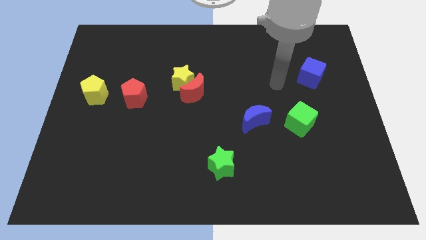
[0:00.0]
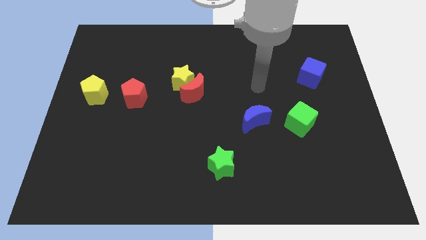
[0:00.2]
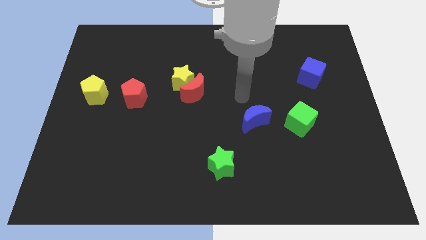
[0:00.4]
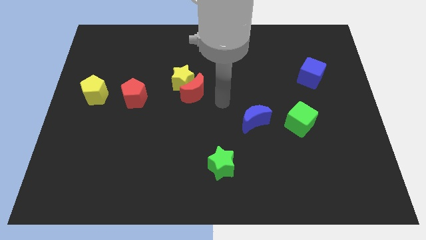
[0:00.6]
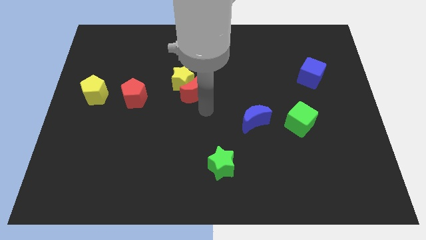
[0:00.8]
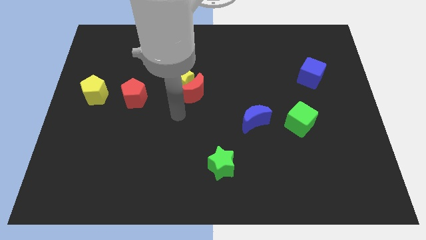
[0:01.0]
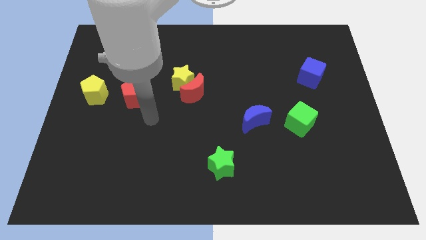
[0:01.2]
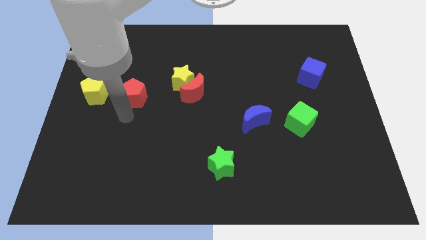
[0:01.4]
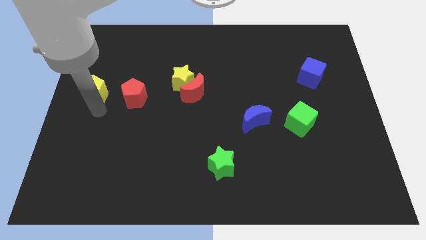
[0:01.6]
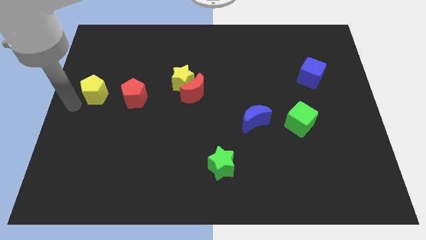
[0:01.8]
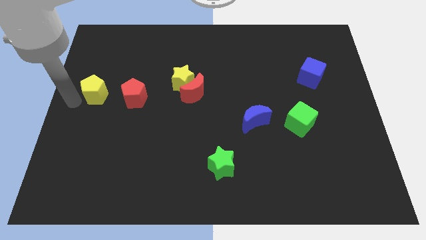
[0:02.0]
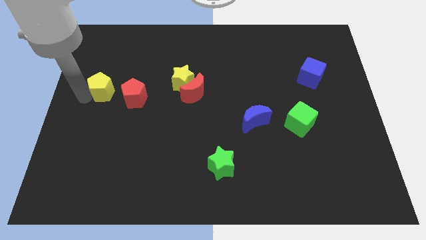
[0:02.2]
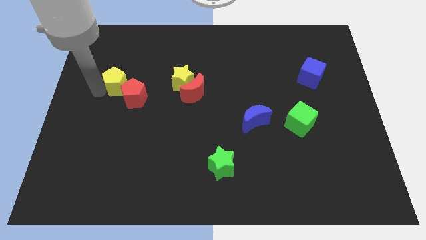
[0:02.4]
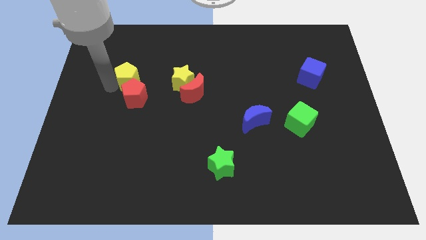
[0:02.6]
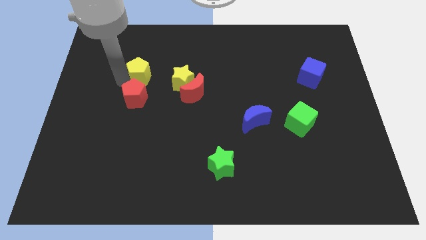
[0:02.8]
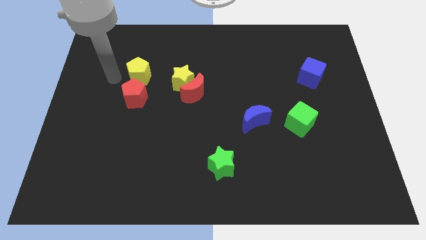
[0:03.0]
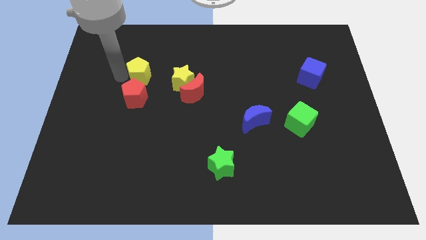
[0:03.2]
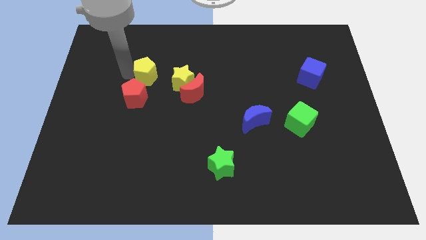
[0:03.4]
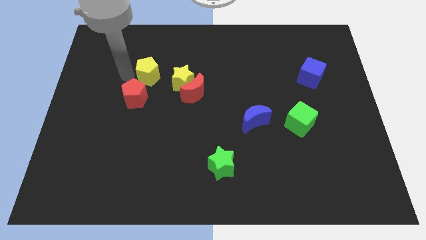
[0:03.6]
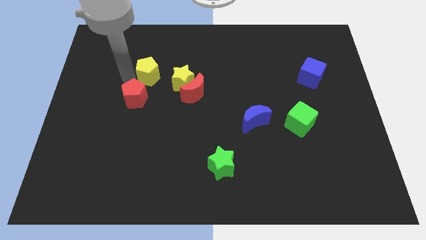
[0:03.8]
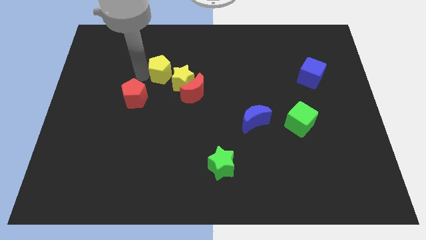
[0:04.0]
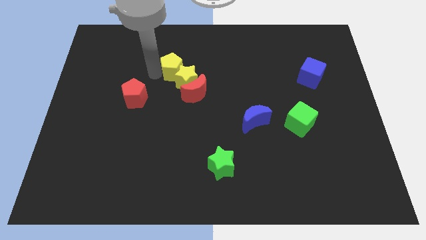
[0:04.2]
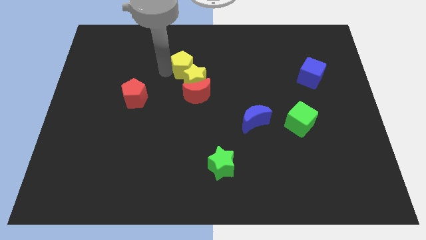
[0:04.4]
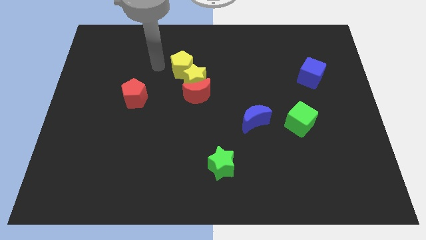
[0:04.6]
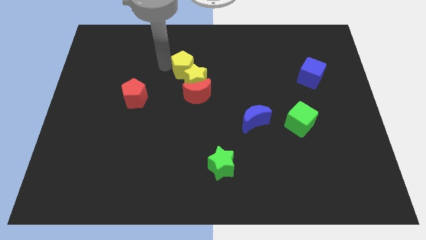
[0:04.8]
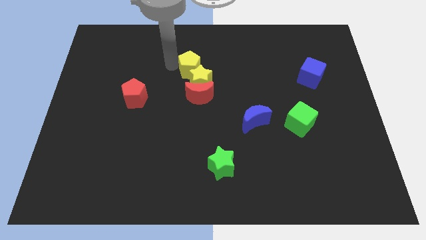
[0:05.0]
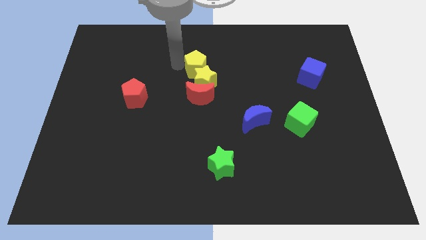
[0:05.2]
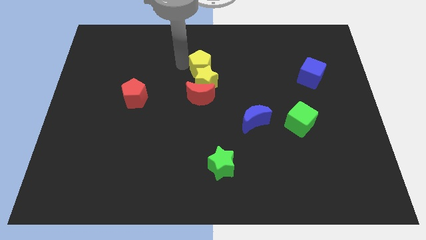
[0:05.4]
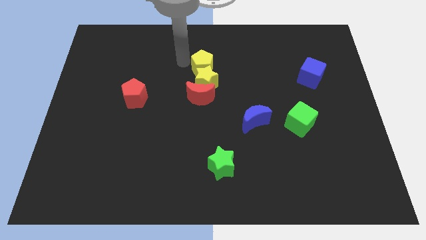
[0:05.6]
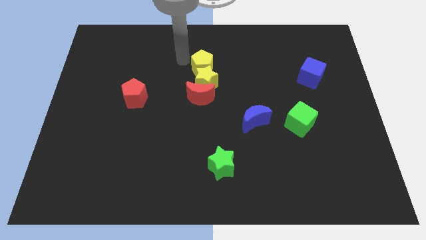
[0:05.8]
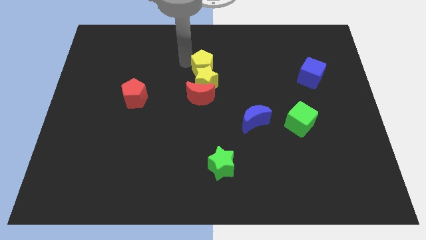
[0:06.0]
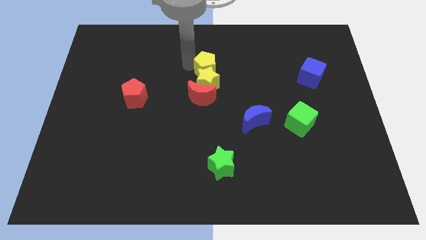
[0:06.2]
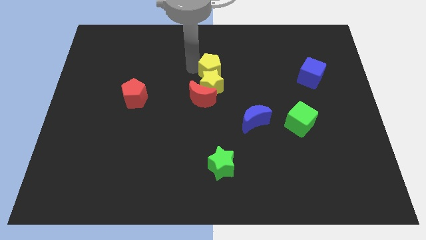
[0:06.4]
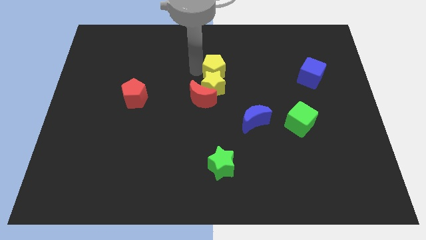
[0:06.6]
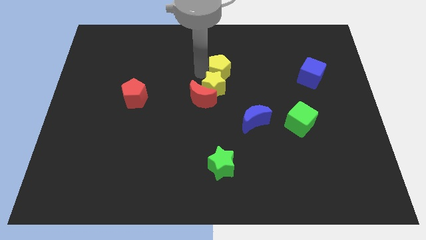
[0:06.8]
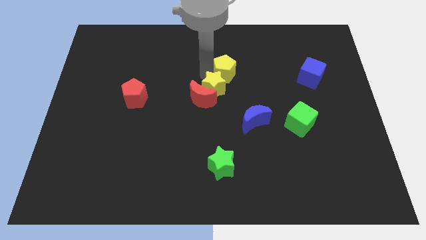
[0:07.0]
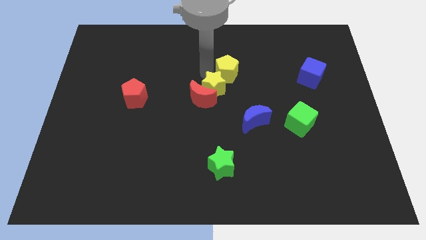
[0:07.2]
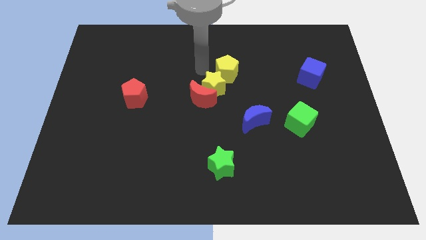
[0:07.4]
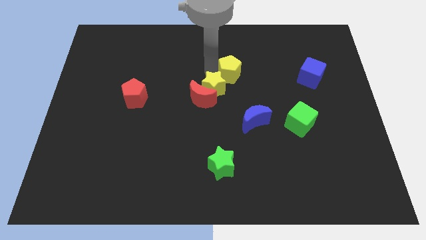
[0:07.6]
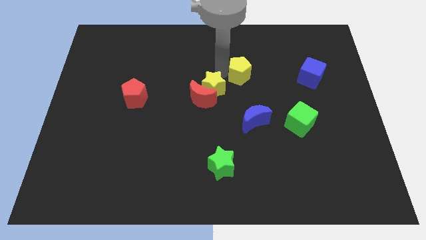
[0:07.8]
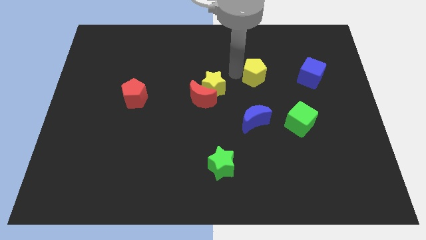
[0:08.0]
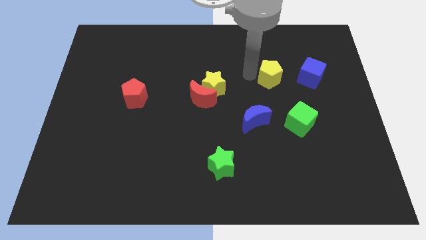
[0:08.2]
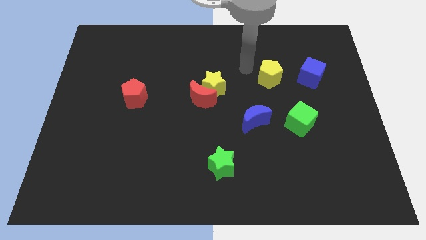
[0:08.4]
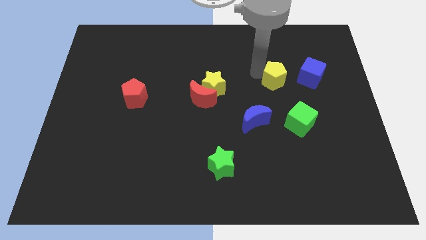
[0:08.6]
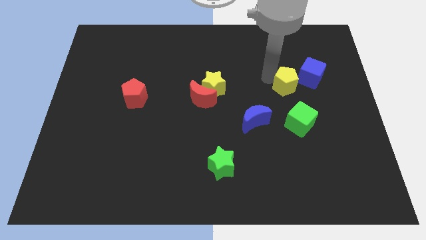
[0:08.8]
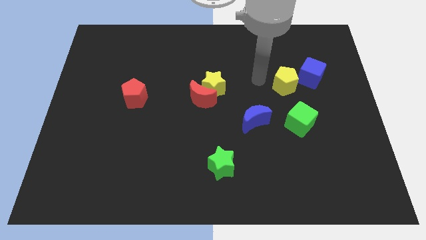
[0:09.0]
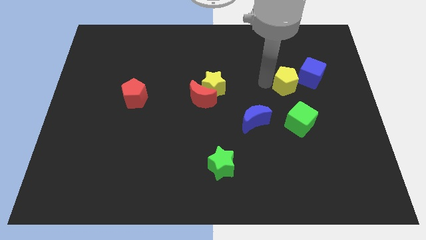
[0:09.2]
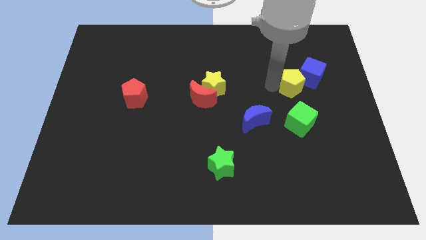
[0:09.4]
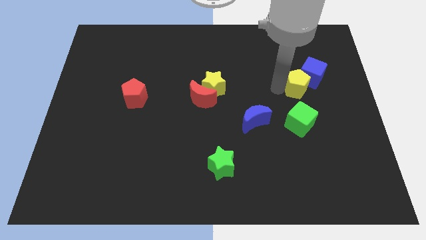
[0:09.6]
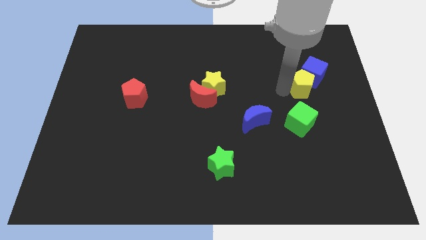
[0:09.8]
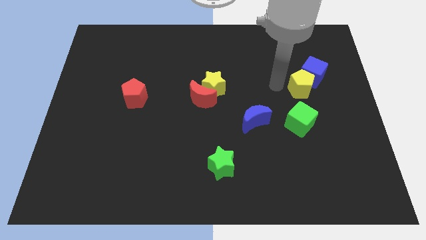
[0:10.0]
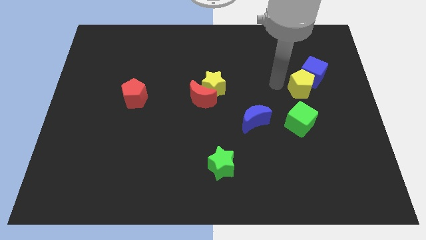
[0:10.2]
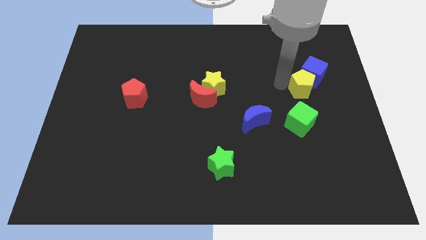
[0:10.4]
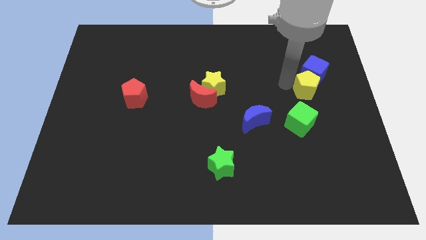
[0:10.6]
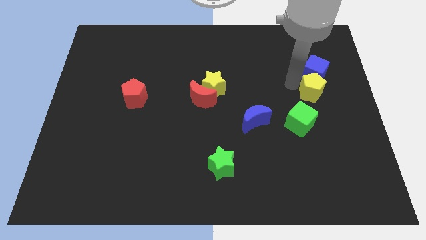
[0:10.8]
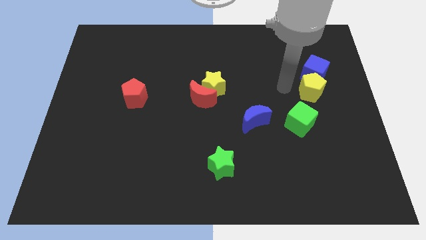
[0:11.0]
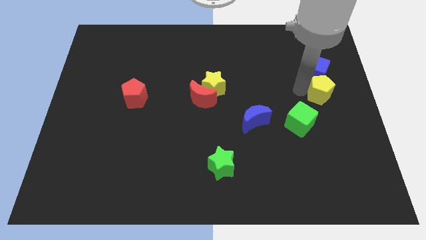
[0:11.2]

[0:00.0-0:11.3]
push the yellow pentagon to the right side of the board

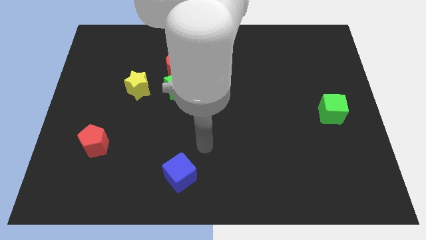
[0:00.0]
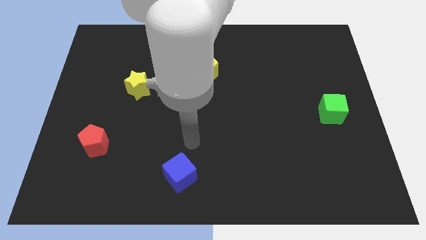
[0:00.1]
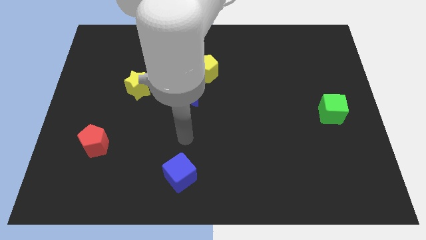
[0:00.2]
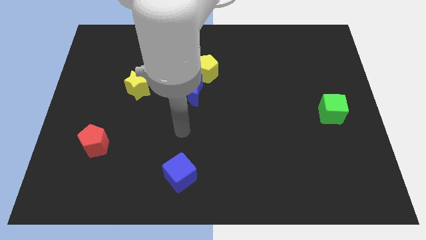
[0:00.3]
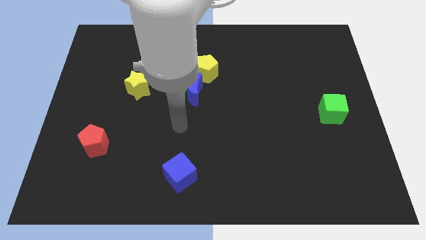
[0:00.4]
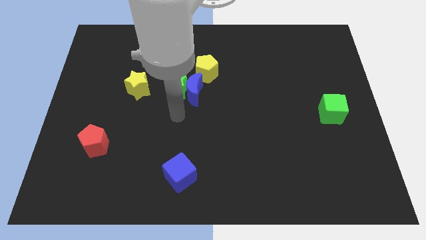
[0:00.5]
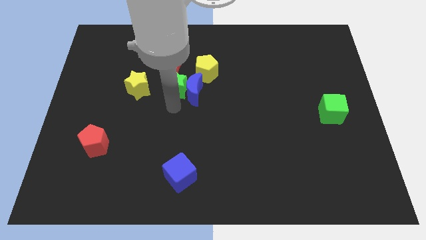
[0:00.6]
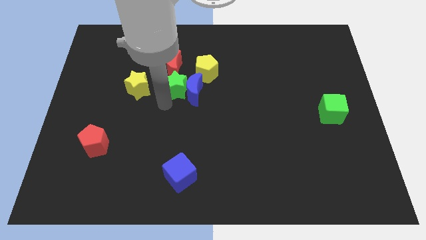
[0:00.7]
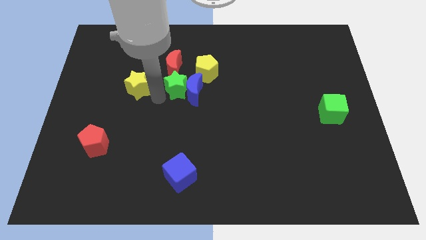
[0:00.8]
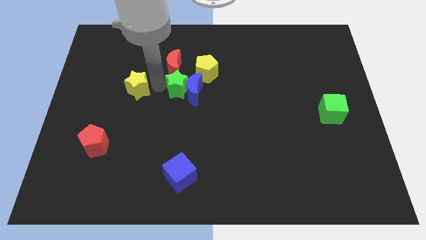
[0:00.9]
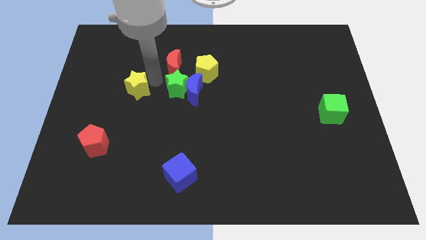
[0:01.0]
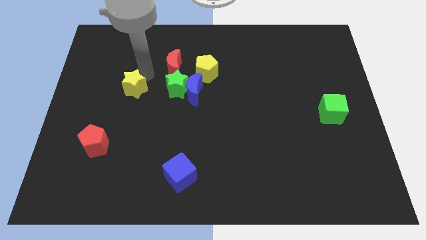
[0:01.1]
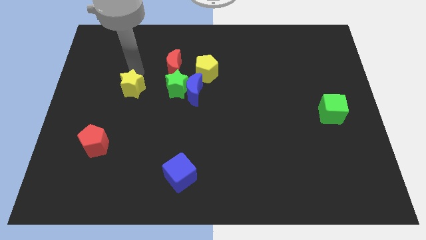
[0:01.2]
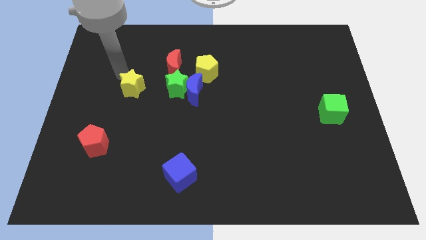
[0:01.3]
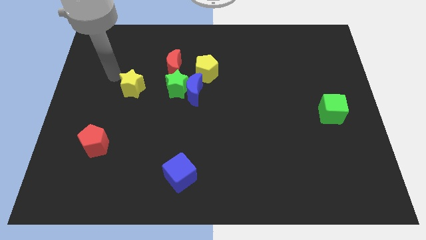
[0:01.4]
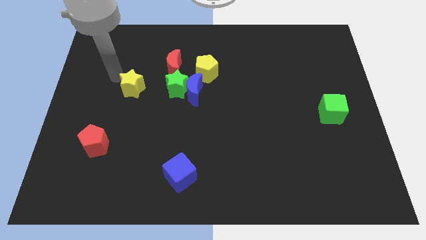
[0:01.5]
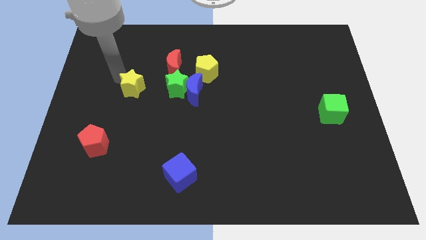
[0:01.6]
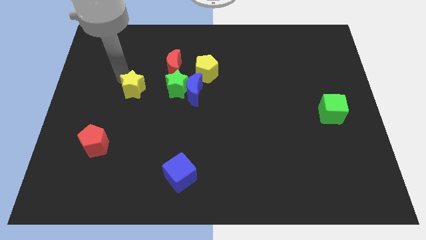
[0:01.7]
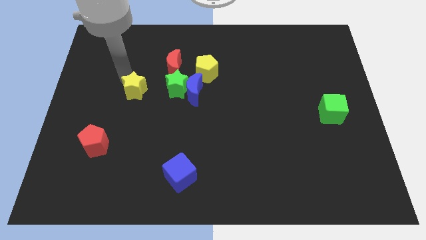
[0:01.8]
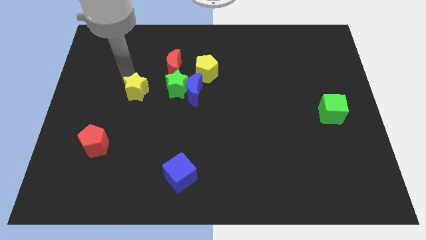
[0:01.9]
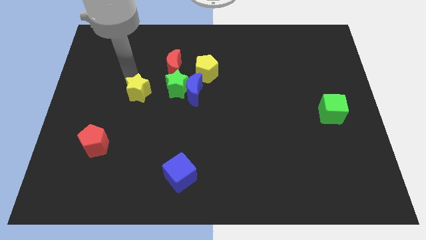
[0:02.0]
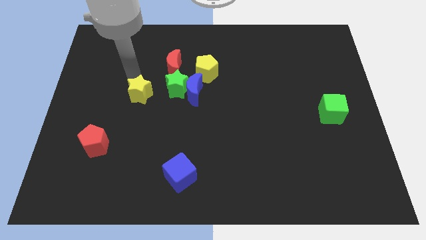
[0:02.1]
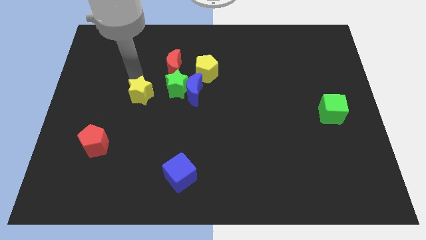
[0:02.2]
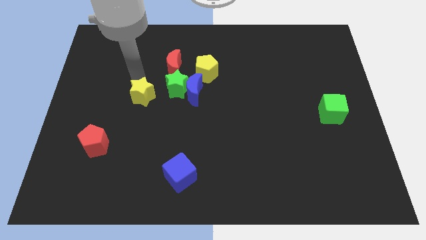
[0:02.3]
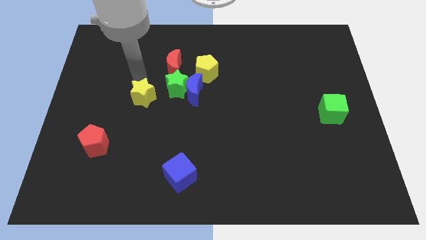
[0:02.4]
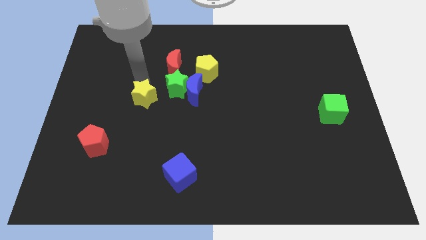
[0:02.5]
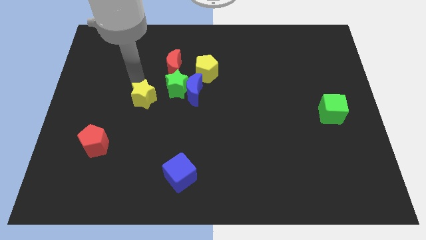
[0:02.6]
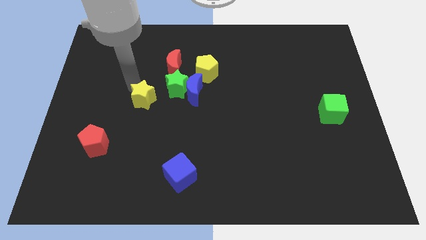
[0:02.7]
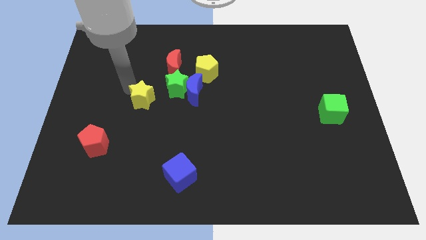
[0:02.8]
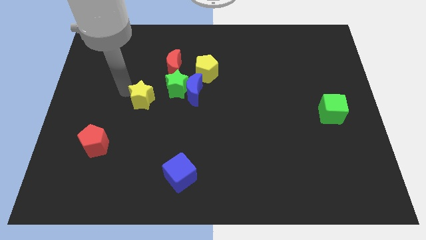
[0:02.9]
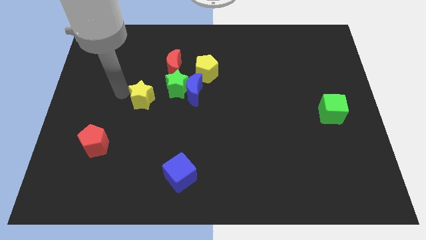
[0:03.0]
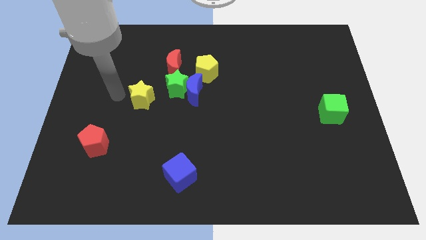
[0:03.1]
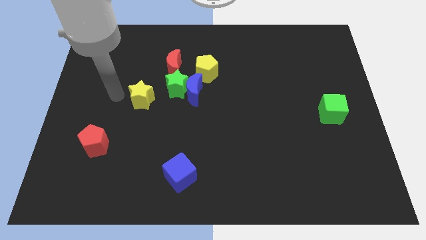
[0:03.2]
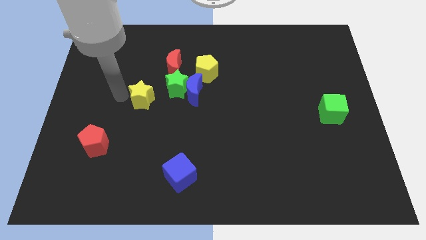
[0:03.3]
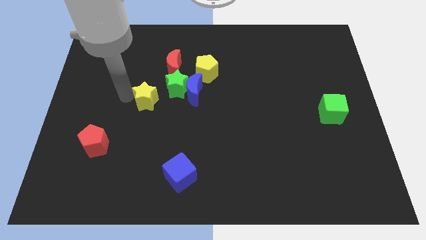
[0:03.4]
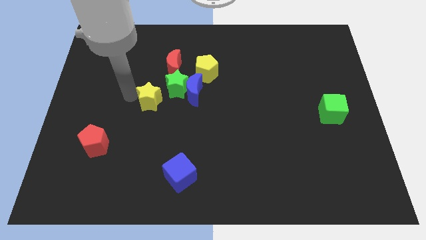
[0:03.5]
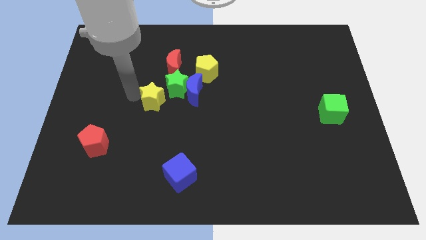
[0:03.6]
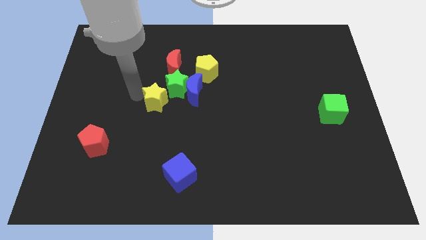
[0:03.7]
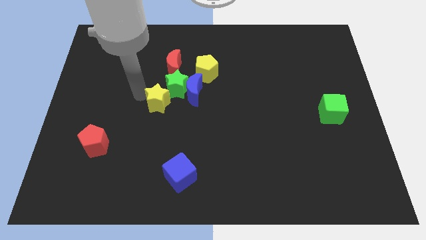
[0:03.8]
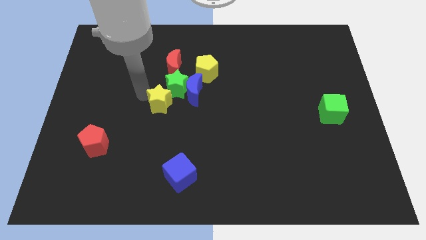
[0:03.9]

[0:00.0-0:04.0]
slide the yellow star to the middle
